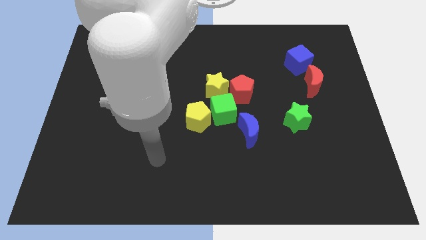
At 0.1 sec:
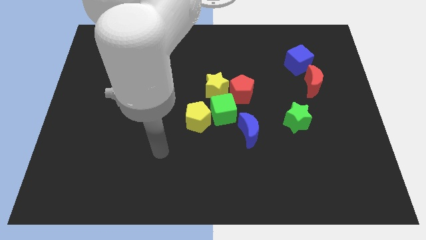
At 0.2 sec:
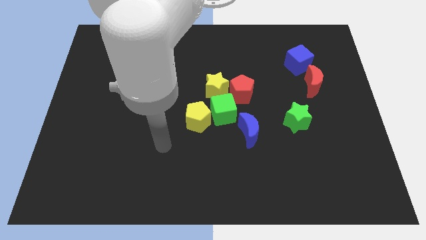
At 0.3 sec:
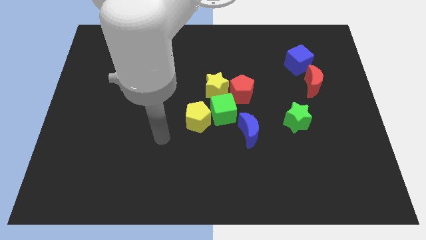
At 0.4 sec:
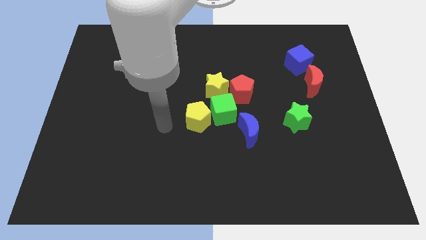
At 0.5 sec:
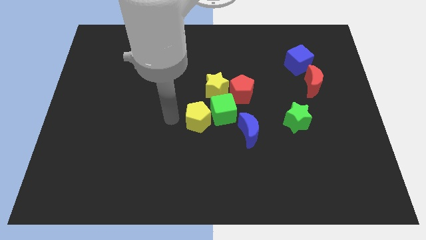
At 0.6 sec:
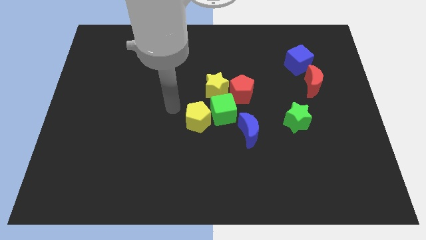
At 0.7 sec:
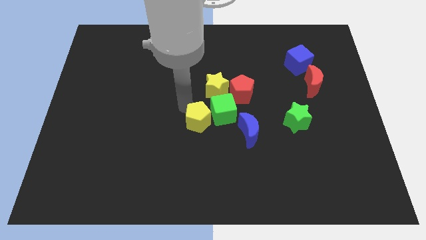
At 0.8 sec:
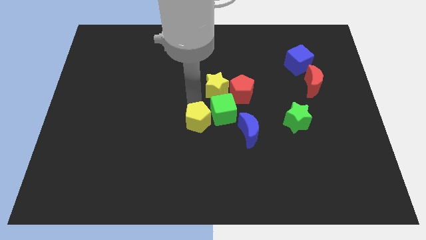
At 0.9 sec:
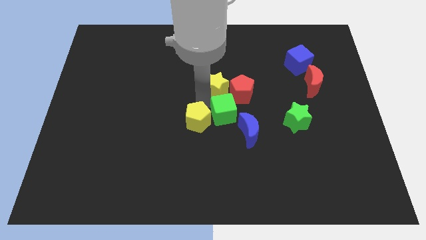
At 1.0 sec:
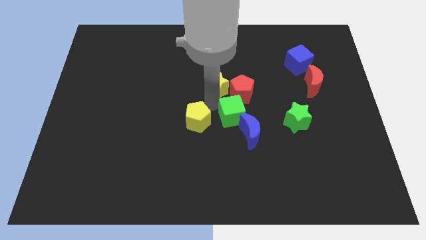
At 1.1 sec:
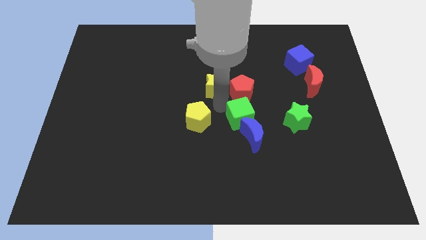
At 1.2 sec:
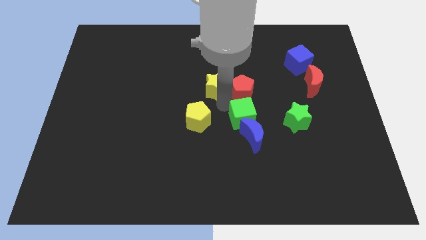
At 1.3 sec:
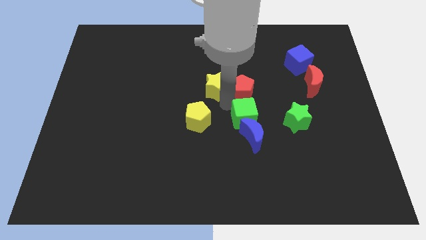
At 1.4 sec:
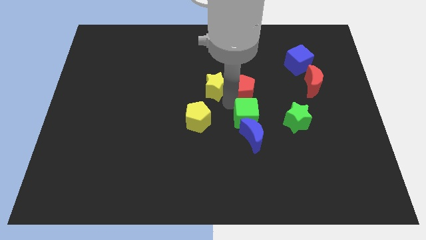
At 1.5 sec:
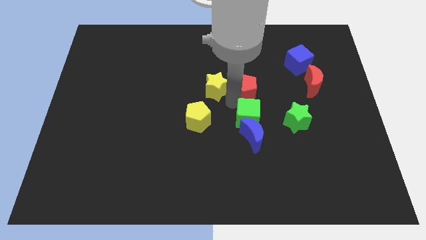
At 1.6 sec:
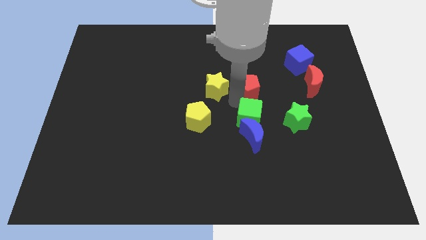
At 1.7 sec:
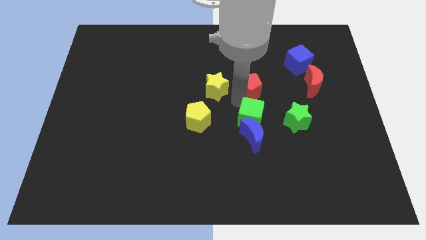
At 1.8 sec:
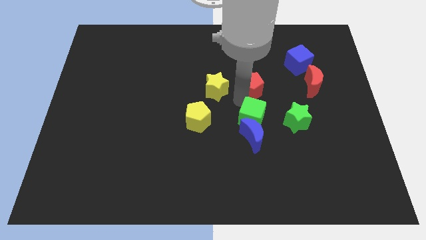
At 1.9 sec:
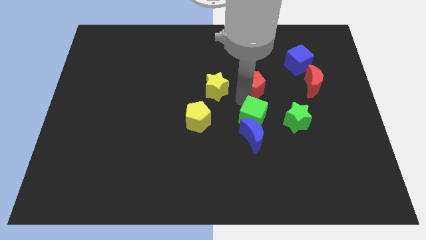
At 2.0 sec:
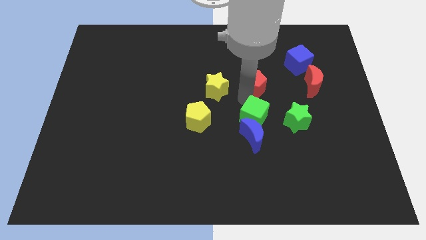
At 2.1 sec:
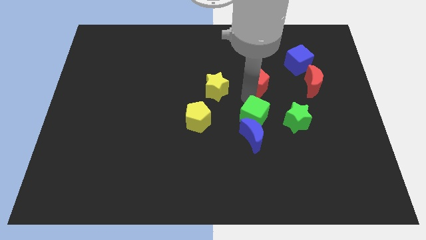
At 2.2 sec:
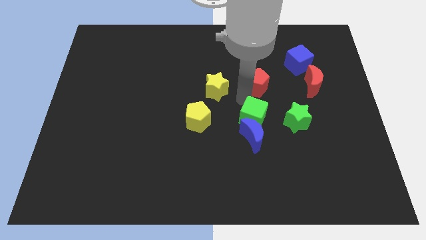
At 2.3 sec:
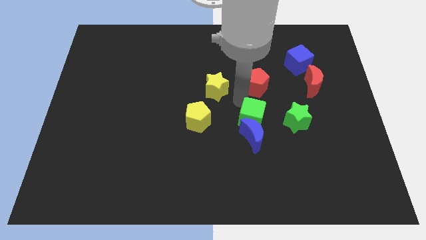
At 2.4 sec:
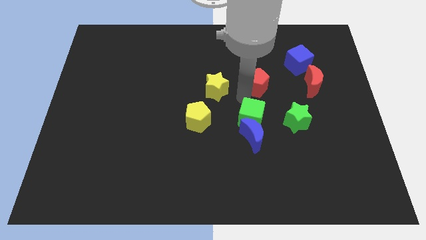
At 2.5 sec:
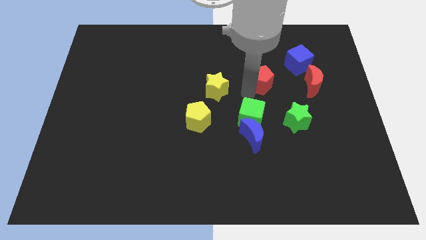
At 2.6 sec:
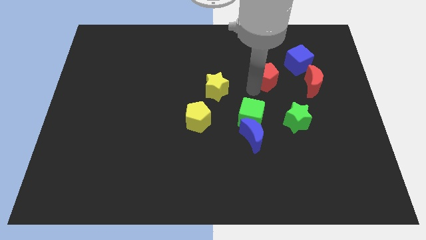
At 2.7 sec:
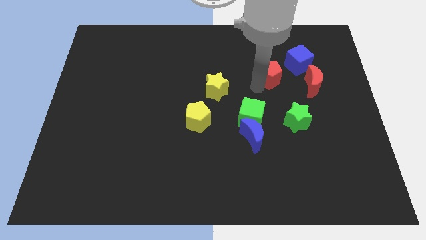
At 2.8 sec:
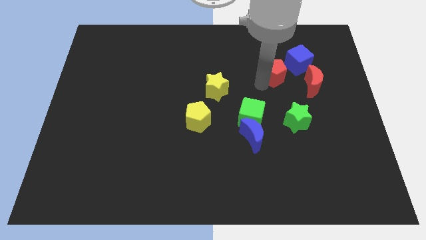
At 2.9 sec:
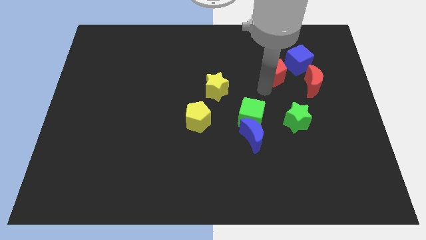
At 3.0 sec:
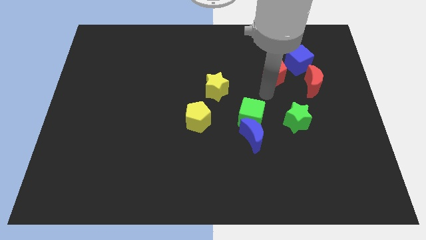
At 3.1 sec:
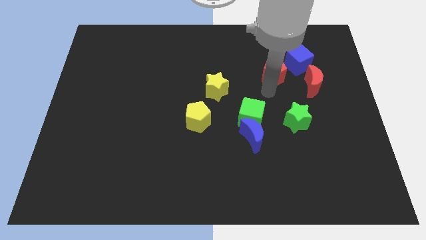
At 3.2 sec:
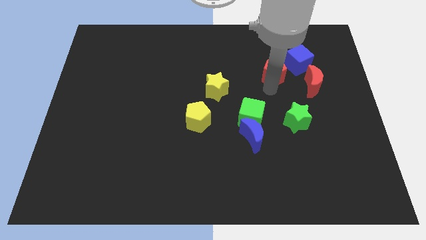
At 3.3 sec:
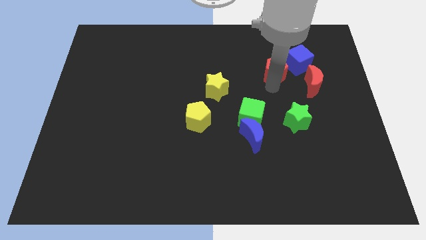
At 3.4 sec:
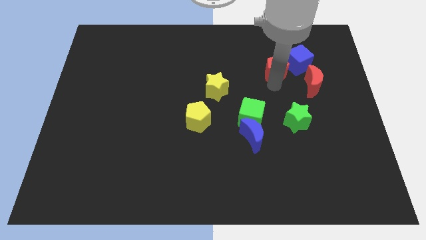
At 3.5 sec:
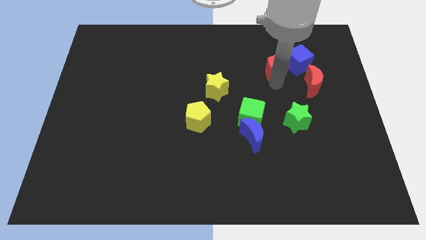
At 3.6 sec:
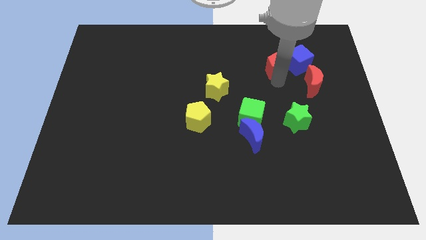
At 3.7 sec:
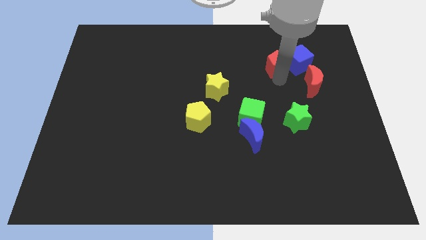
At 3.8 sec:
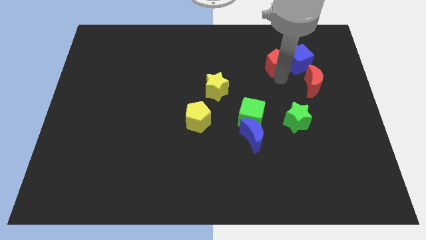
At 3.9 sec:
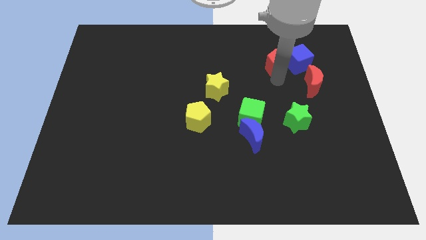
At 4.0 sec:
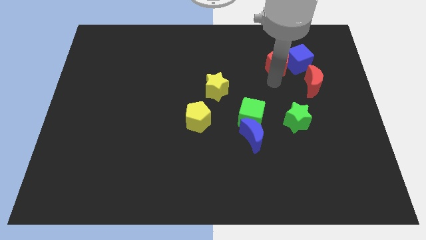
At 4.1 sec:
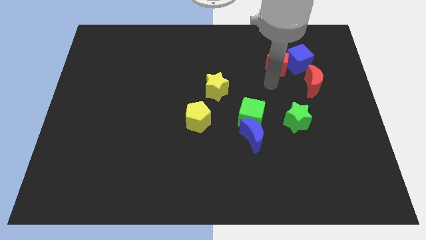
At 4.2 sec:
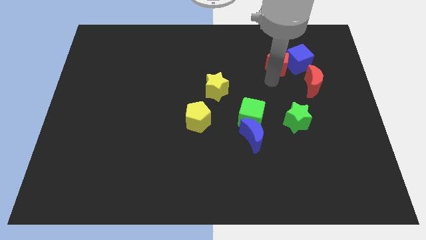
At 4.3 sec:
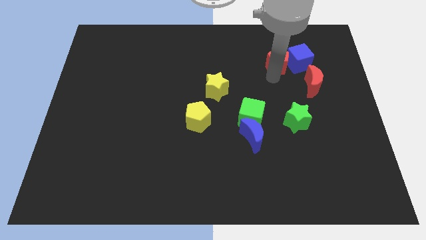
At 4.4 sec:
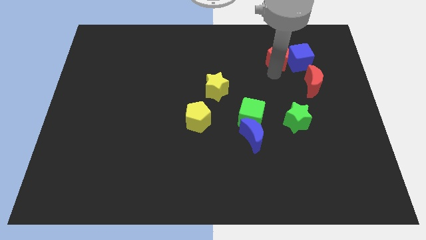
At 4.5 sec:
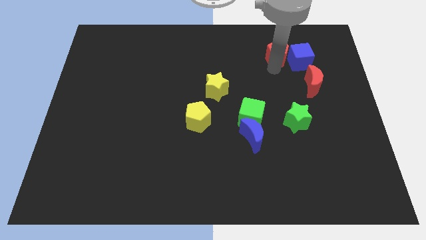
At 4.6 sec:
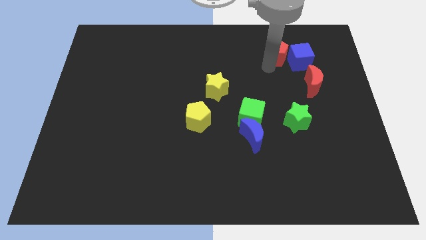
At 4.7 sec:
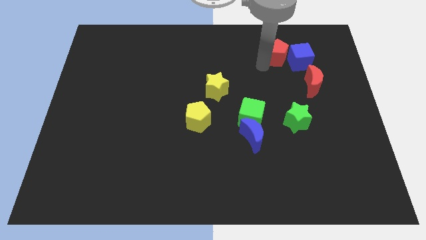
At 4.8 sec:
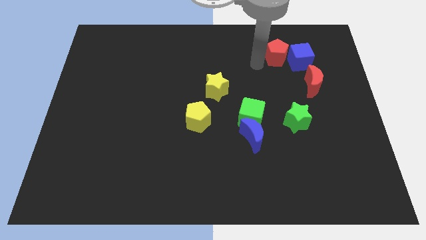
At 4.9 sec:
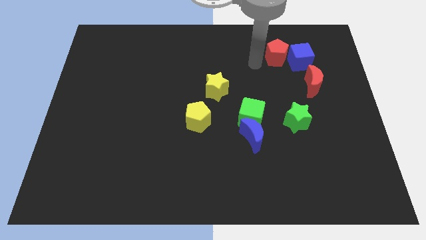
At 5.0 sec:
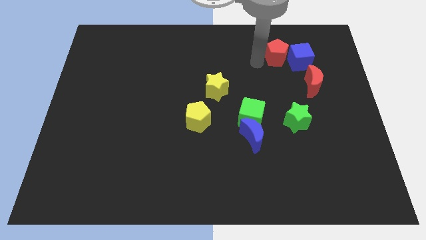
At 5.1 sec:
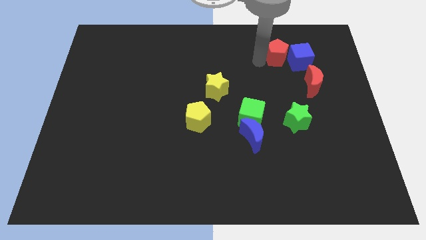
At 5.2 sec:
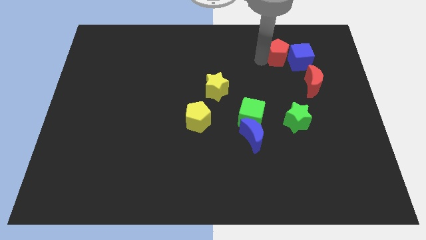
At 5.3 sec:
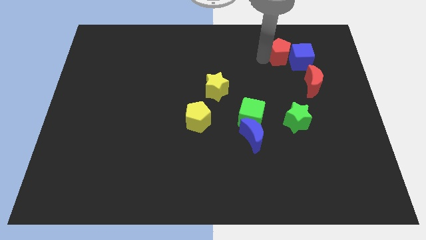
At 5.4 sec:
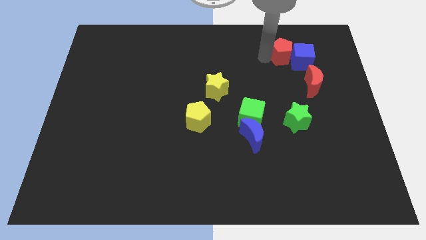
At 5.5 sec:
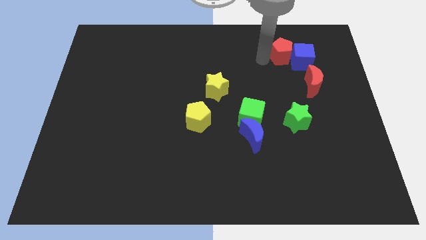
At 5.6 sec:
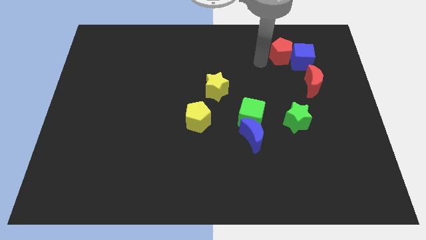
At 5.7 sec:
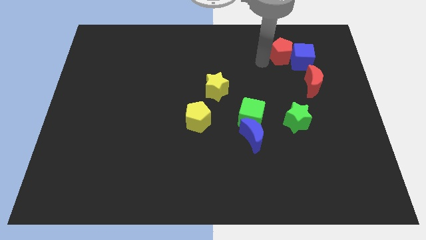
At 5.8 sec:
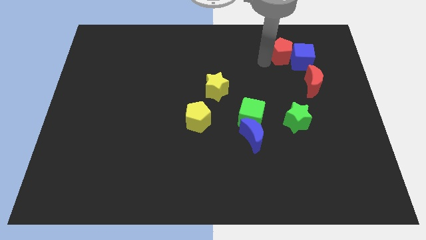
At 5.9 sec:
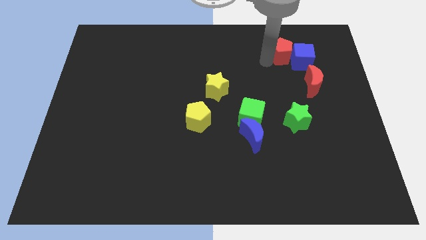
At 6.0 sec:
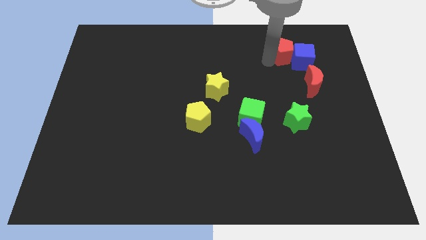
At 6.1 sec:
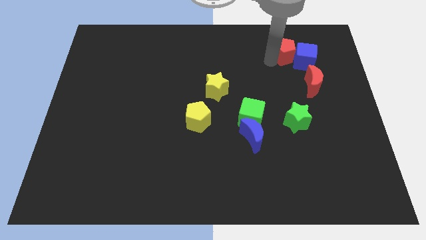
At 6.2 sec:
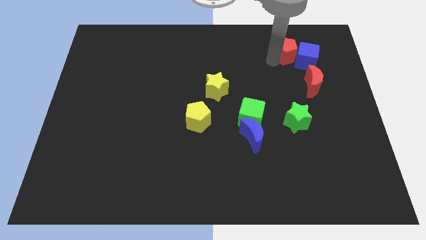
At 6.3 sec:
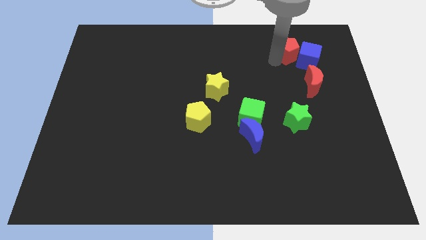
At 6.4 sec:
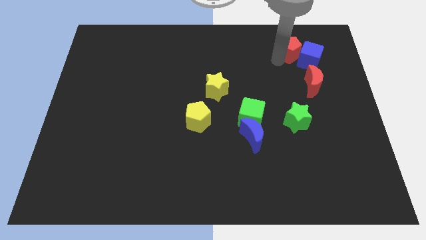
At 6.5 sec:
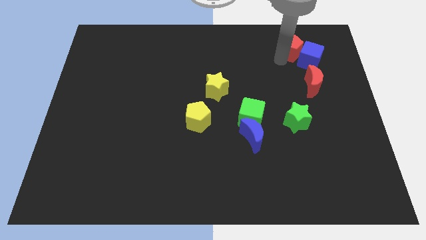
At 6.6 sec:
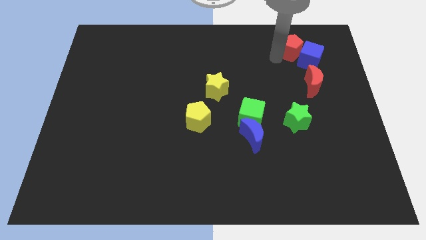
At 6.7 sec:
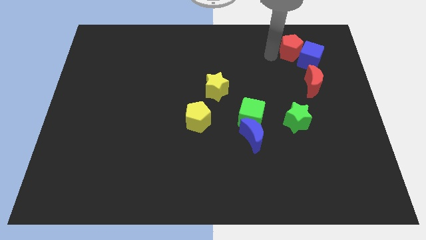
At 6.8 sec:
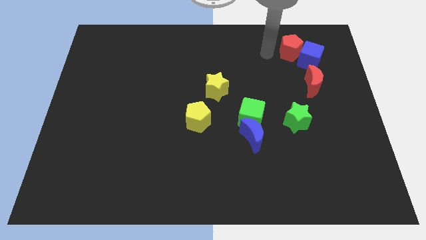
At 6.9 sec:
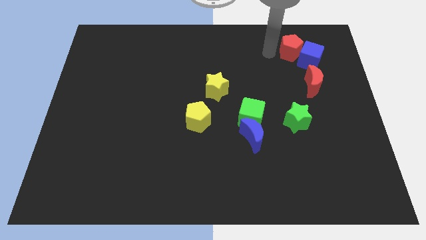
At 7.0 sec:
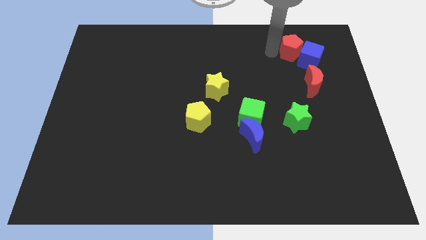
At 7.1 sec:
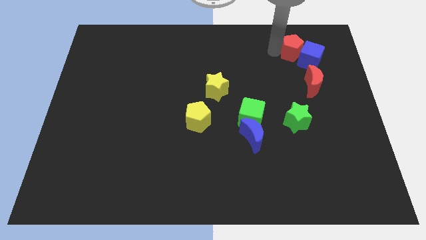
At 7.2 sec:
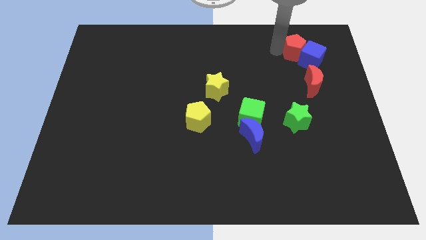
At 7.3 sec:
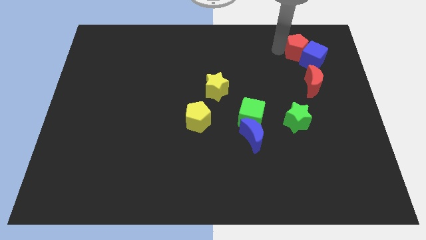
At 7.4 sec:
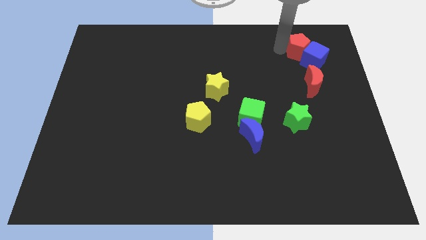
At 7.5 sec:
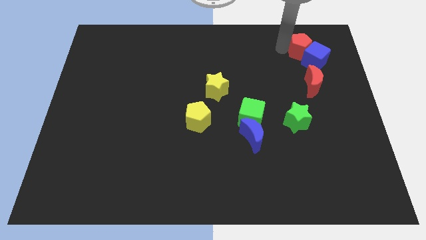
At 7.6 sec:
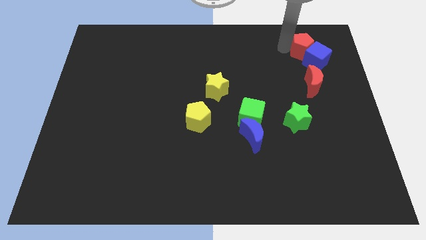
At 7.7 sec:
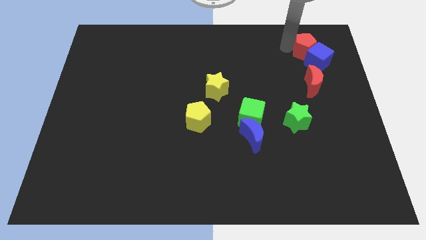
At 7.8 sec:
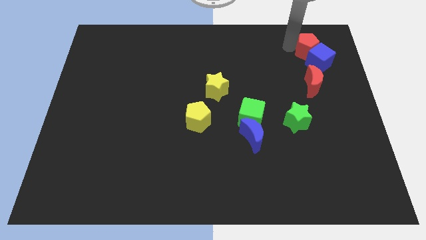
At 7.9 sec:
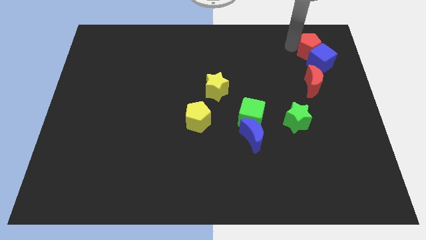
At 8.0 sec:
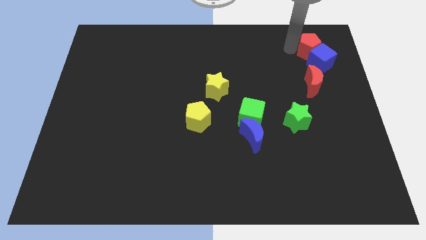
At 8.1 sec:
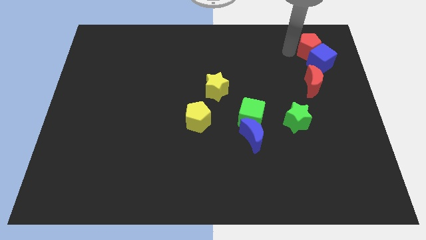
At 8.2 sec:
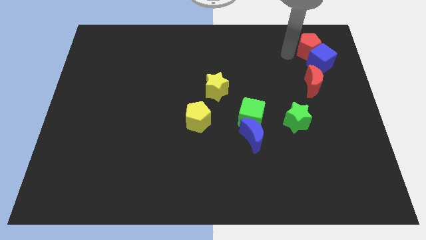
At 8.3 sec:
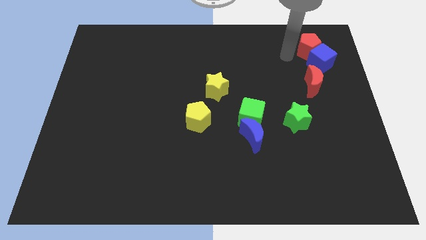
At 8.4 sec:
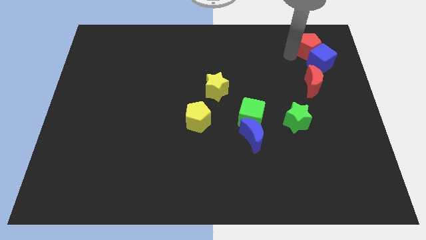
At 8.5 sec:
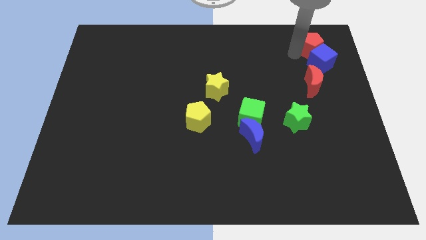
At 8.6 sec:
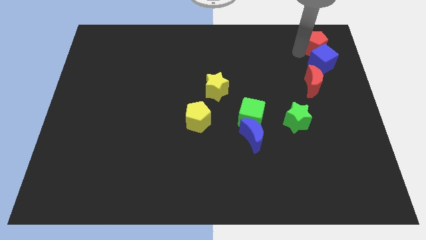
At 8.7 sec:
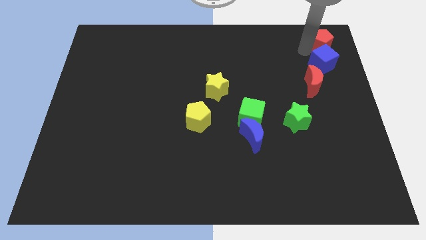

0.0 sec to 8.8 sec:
move the red pentagon to the upper right corner
